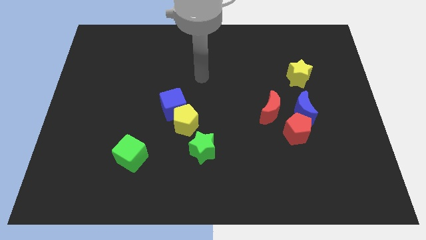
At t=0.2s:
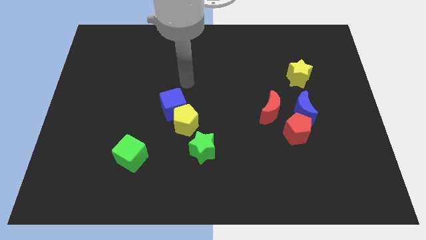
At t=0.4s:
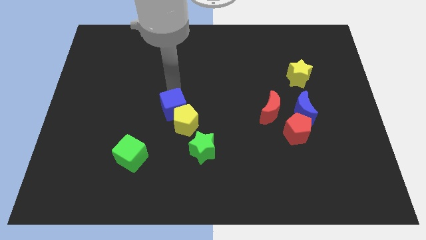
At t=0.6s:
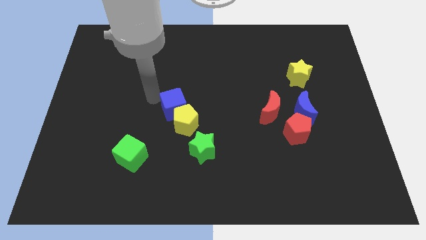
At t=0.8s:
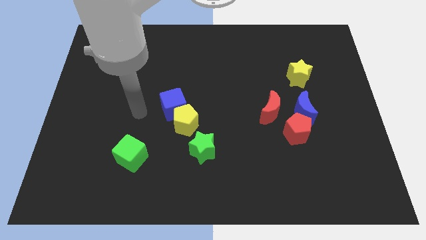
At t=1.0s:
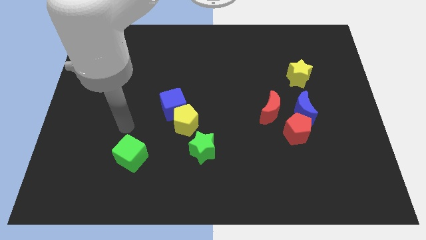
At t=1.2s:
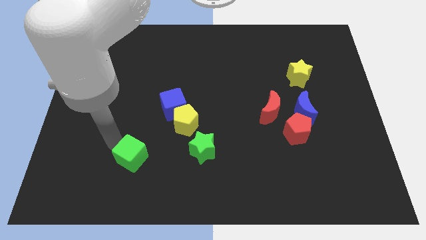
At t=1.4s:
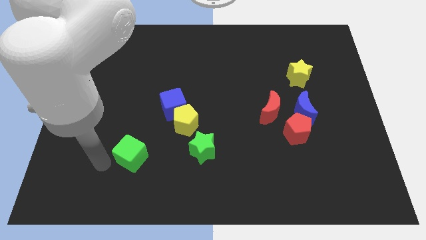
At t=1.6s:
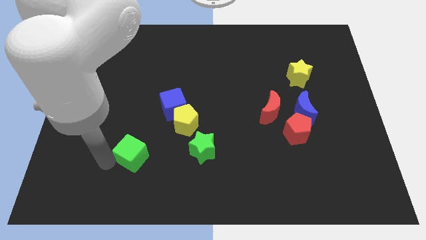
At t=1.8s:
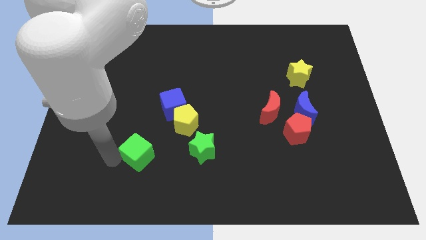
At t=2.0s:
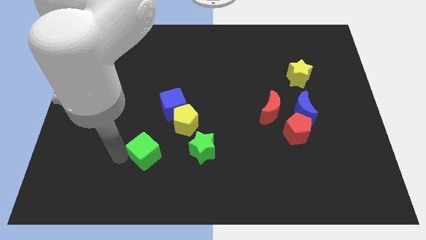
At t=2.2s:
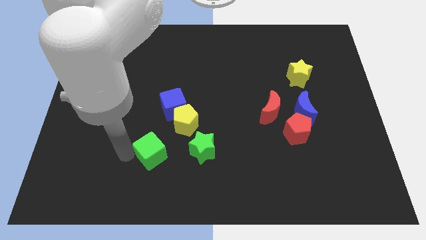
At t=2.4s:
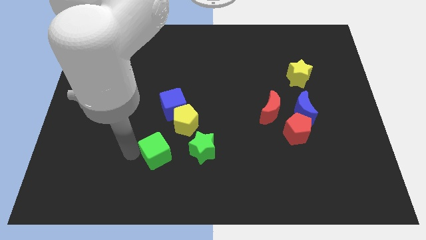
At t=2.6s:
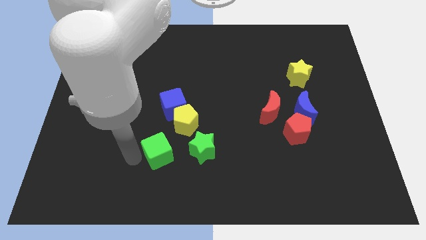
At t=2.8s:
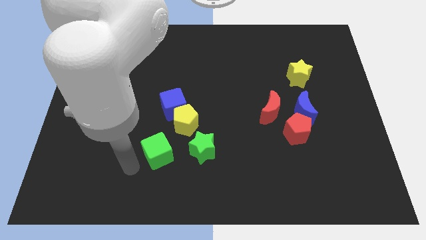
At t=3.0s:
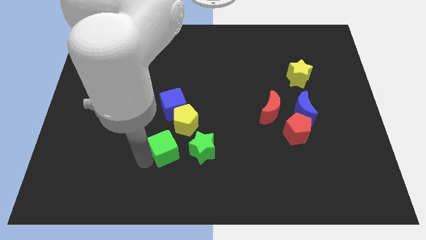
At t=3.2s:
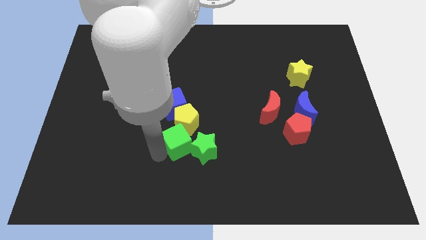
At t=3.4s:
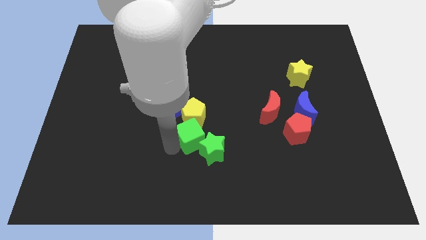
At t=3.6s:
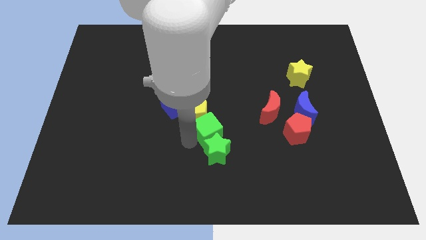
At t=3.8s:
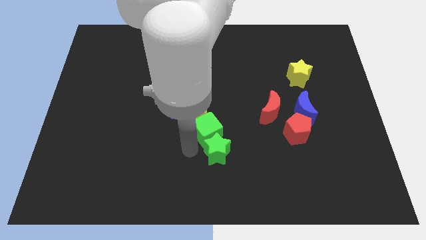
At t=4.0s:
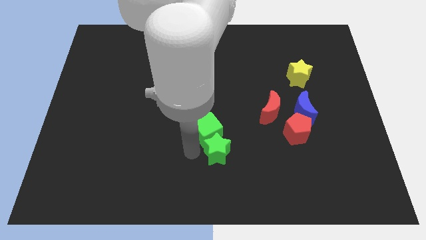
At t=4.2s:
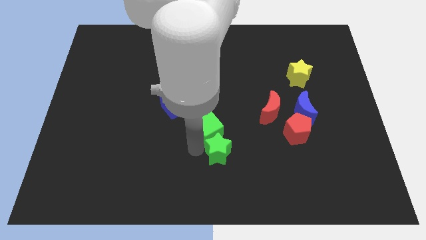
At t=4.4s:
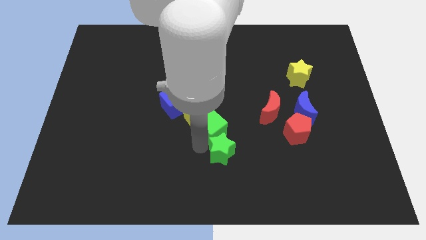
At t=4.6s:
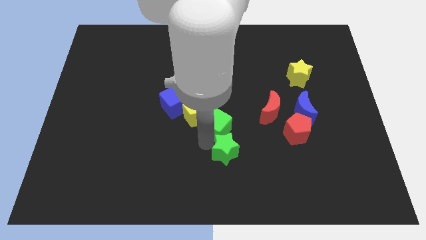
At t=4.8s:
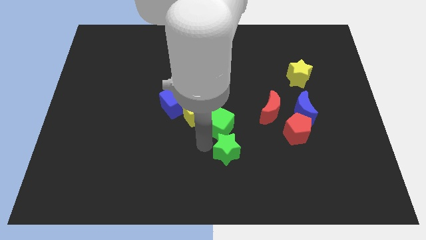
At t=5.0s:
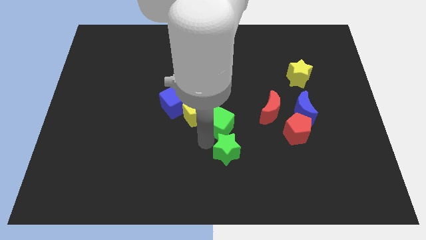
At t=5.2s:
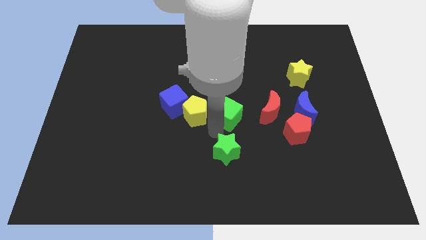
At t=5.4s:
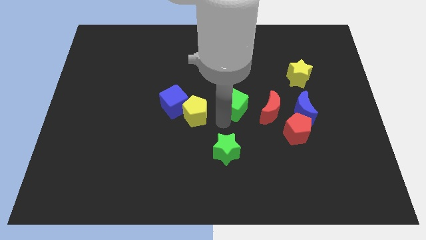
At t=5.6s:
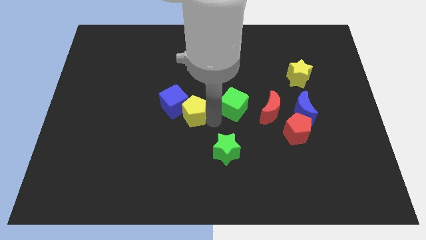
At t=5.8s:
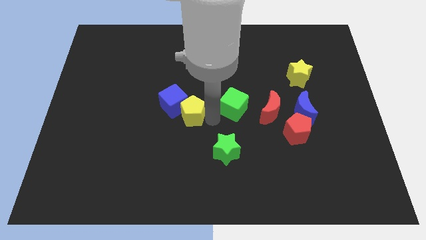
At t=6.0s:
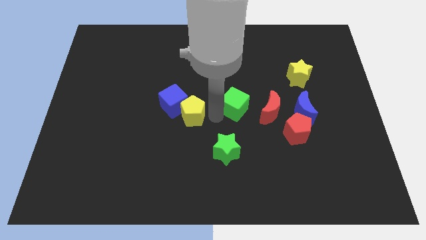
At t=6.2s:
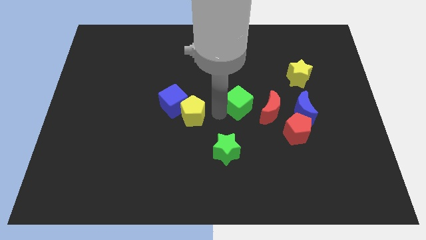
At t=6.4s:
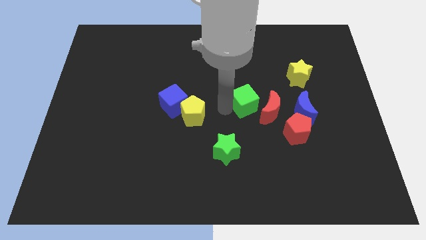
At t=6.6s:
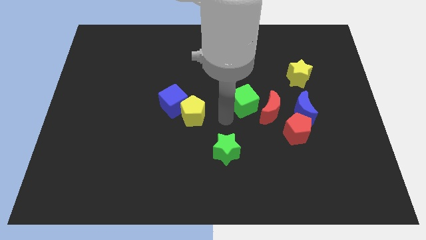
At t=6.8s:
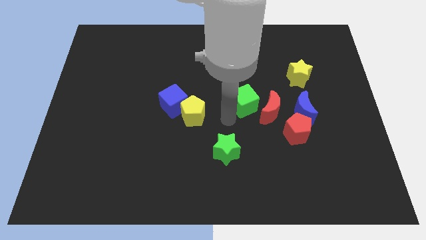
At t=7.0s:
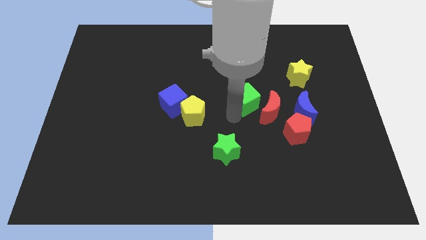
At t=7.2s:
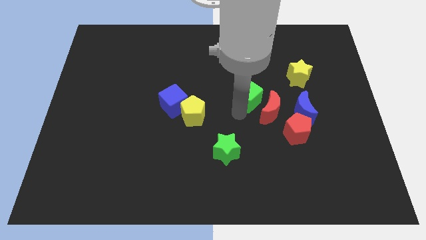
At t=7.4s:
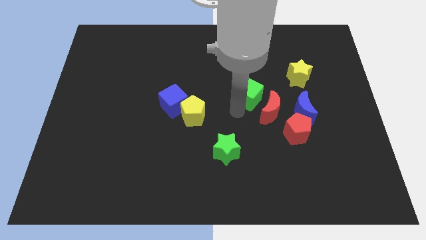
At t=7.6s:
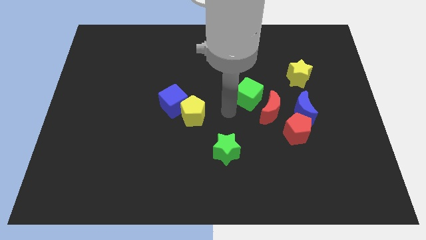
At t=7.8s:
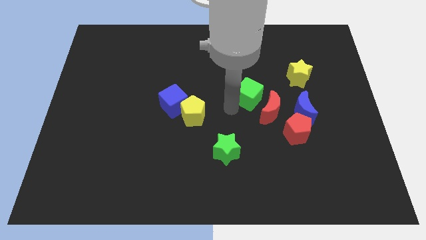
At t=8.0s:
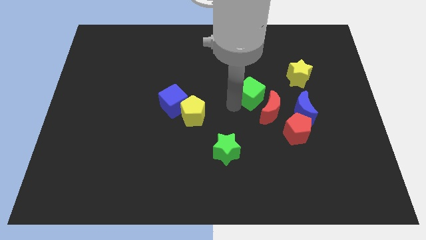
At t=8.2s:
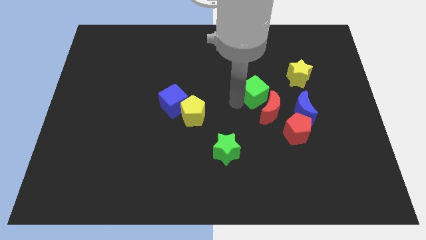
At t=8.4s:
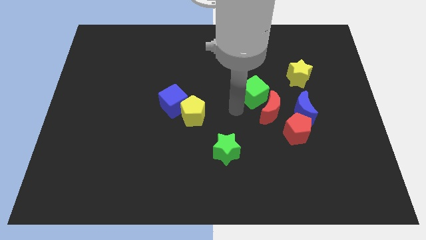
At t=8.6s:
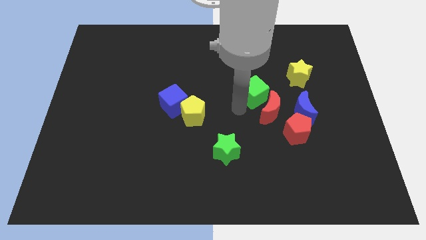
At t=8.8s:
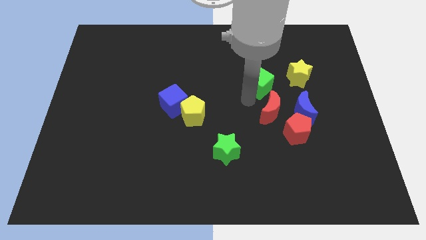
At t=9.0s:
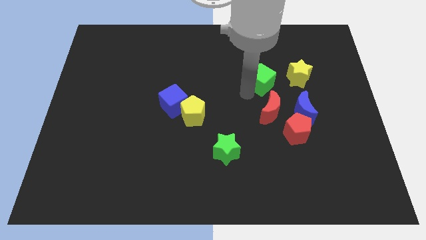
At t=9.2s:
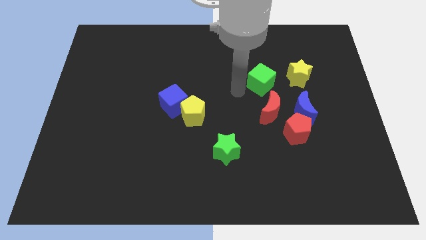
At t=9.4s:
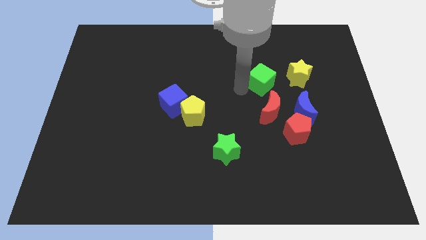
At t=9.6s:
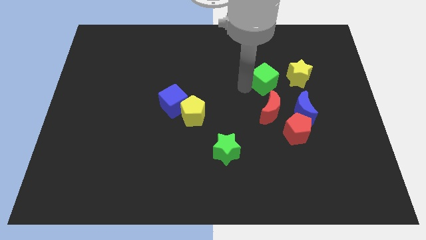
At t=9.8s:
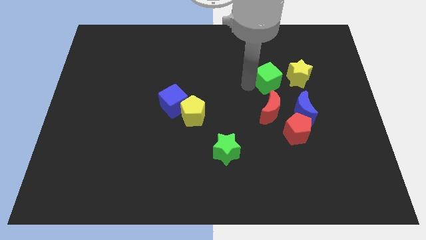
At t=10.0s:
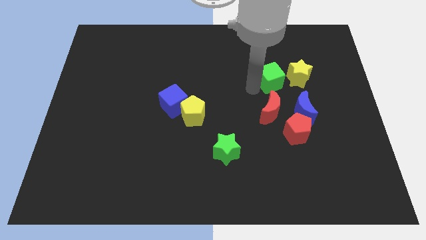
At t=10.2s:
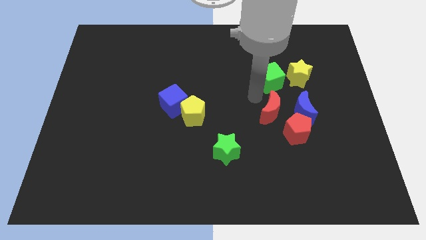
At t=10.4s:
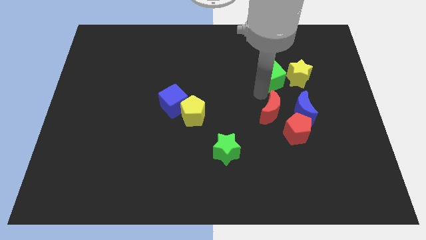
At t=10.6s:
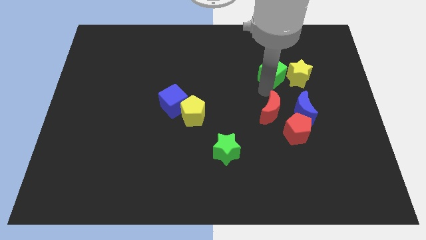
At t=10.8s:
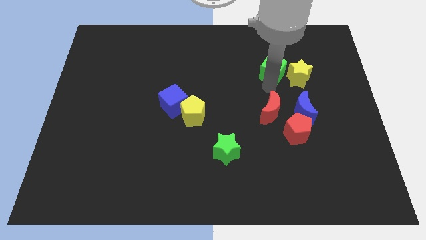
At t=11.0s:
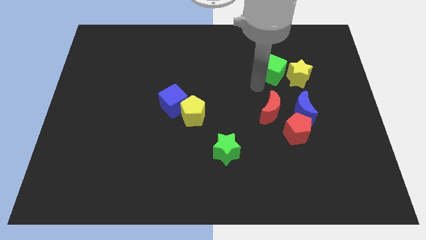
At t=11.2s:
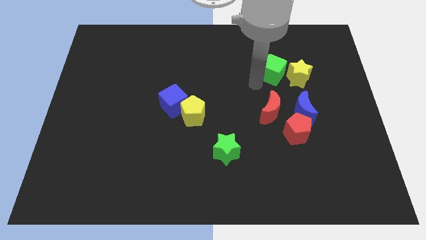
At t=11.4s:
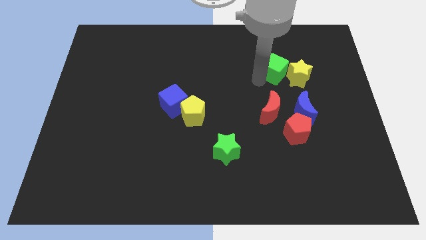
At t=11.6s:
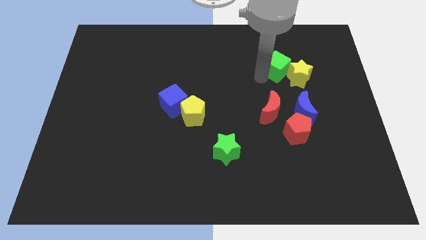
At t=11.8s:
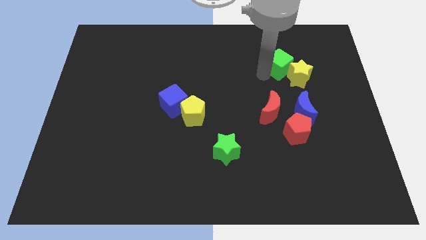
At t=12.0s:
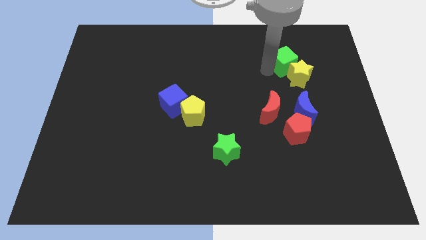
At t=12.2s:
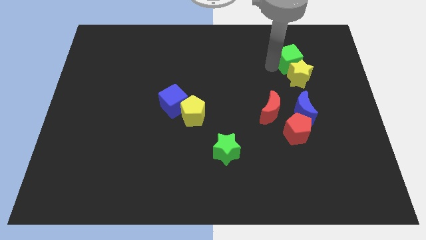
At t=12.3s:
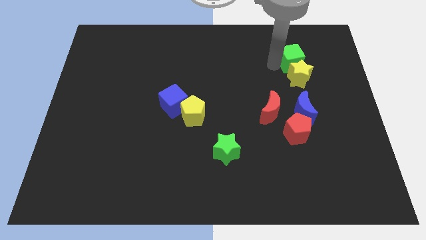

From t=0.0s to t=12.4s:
put the green cube to the top right side of the yellow star

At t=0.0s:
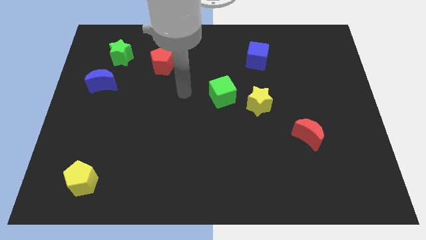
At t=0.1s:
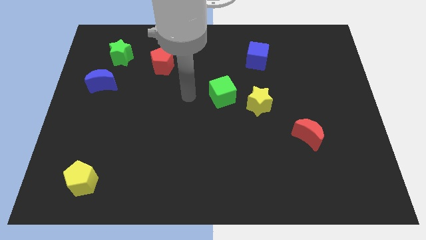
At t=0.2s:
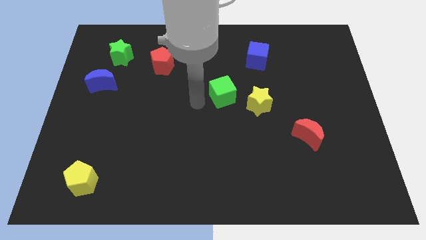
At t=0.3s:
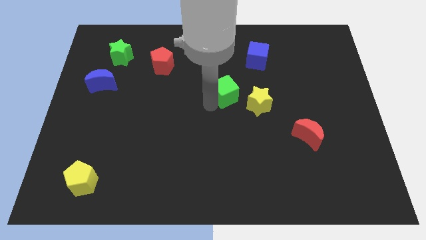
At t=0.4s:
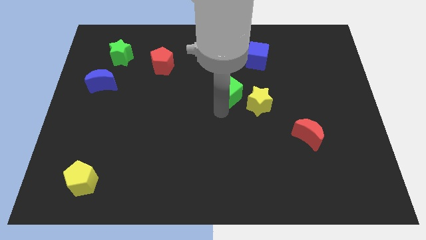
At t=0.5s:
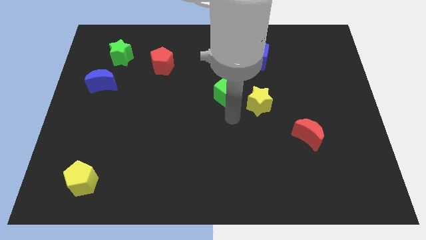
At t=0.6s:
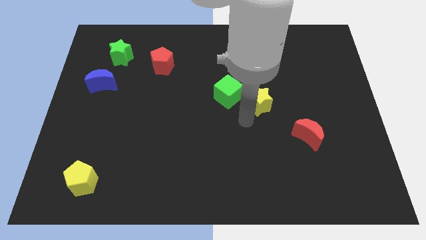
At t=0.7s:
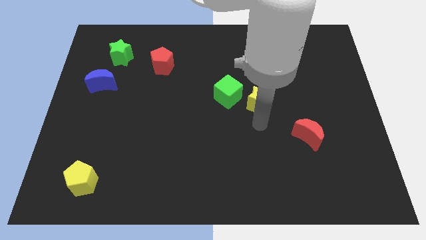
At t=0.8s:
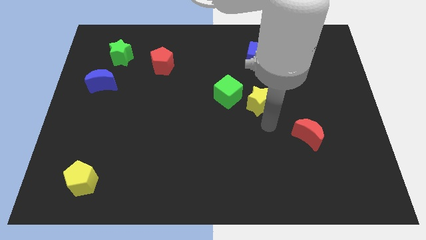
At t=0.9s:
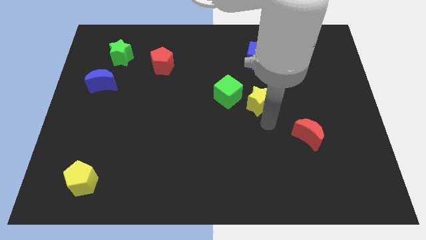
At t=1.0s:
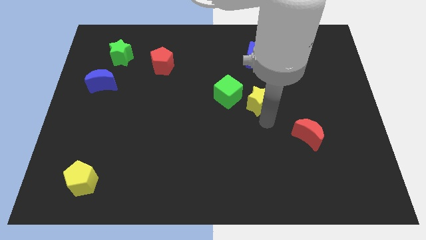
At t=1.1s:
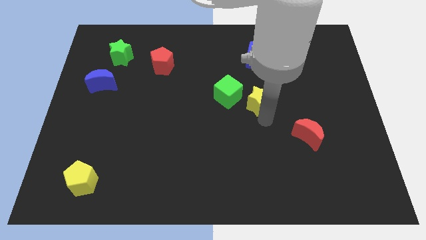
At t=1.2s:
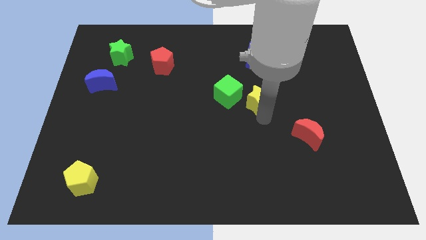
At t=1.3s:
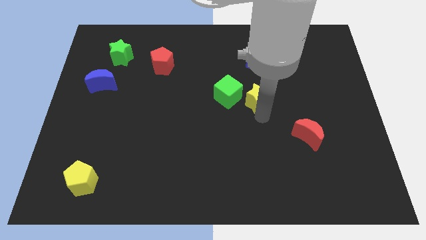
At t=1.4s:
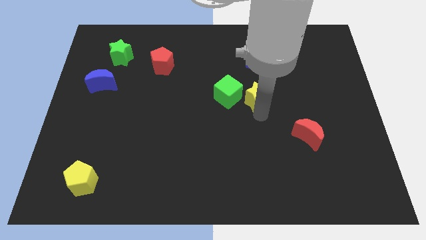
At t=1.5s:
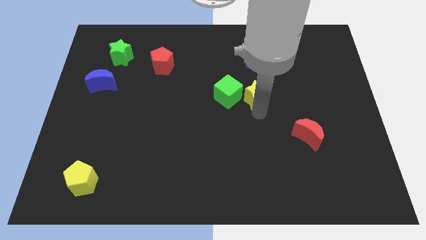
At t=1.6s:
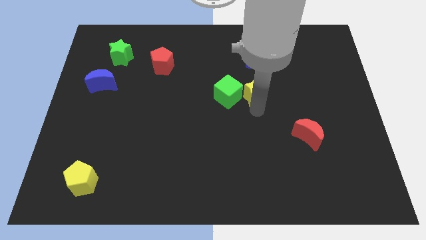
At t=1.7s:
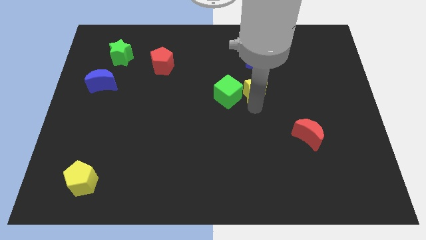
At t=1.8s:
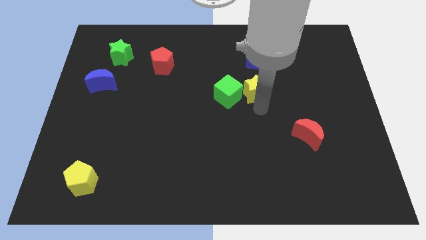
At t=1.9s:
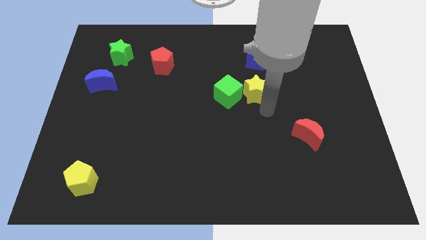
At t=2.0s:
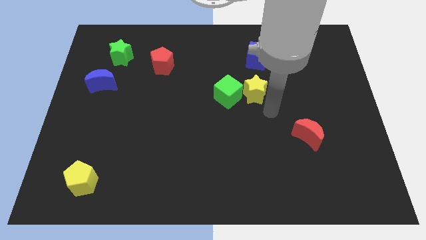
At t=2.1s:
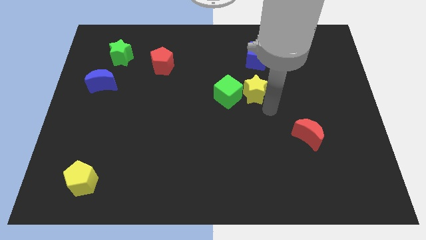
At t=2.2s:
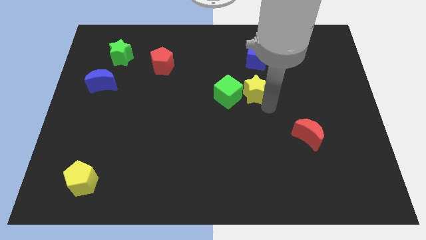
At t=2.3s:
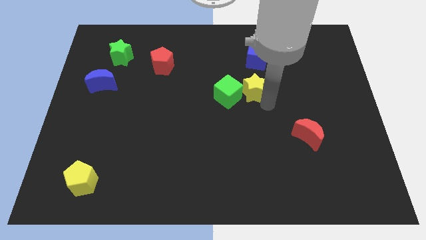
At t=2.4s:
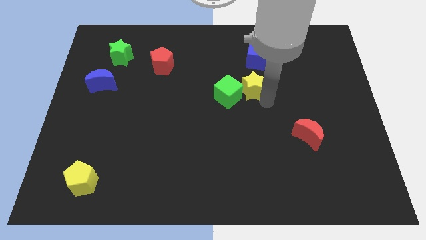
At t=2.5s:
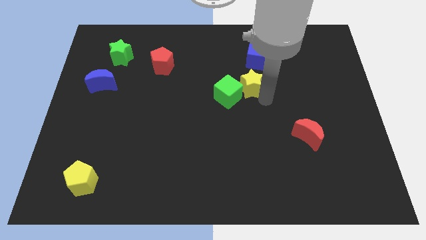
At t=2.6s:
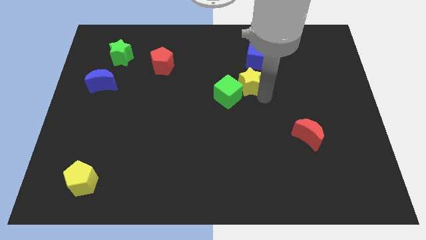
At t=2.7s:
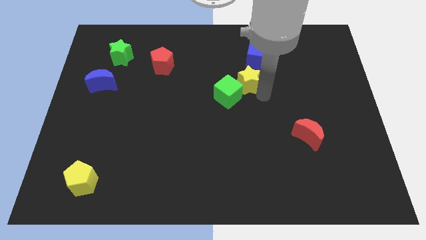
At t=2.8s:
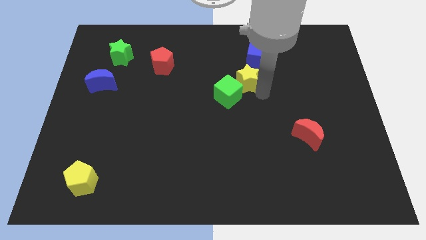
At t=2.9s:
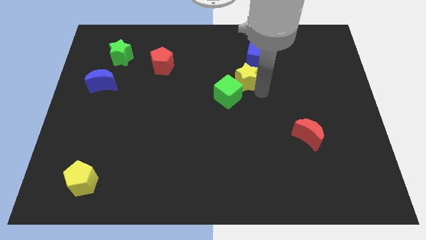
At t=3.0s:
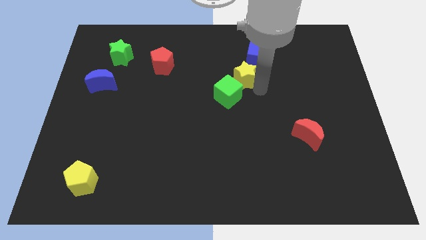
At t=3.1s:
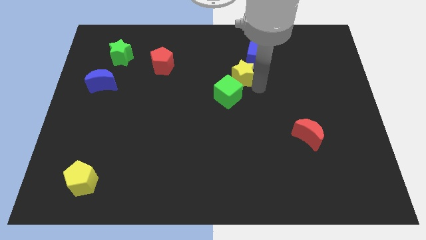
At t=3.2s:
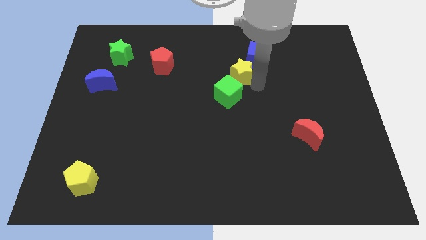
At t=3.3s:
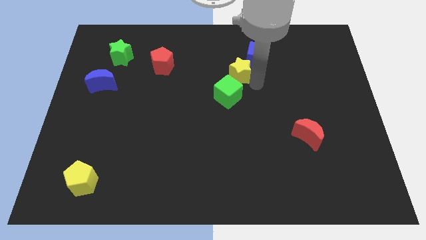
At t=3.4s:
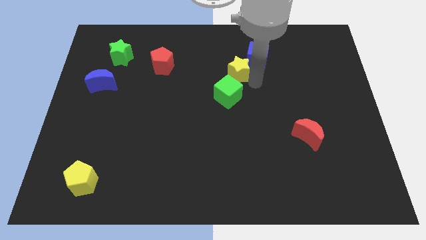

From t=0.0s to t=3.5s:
slide the yellow star left of the blue cube
